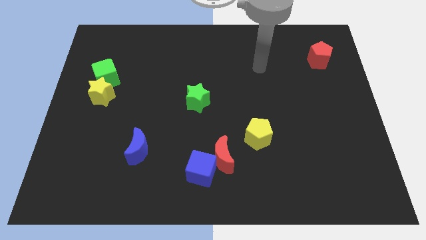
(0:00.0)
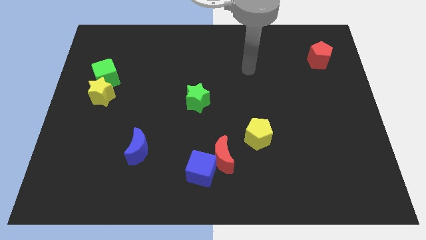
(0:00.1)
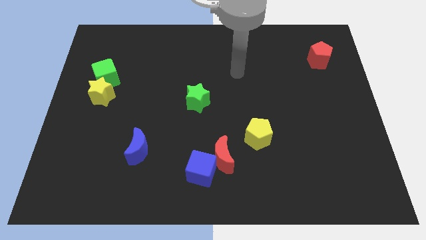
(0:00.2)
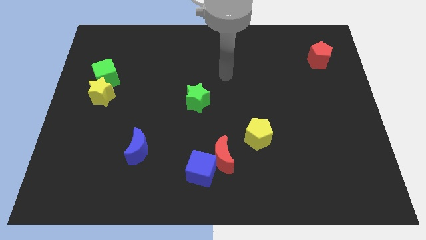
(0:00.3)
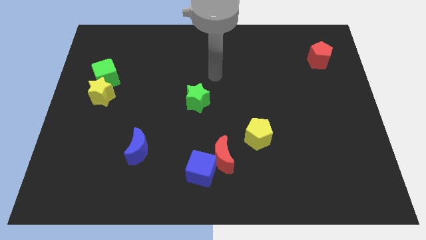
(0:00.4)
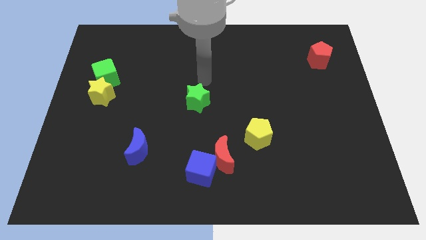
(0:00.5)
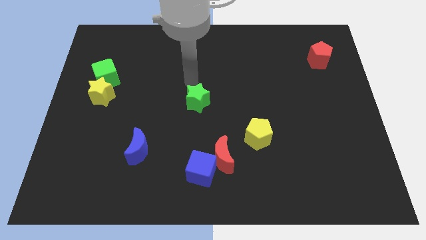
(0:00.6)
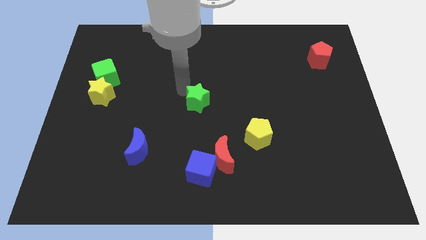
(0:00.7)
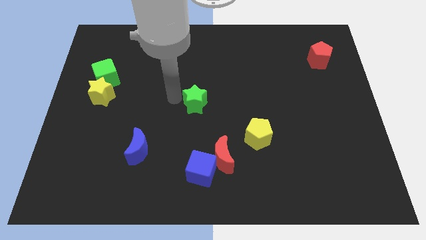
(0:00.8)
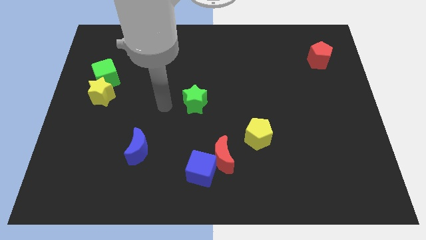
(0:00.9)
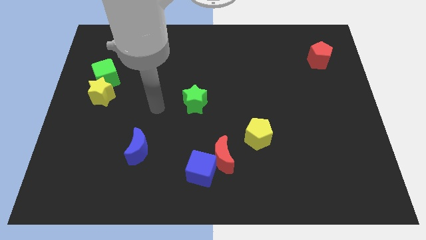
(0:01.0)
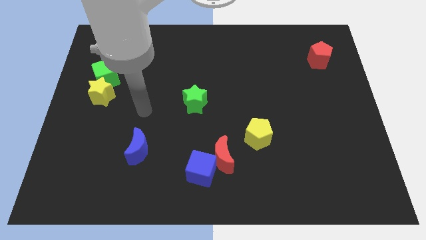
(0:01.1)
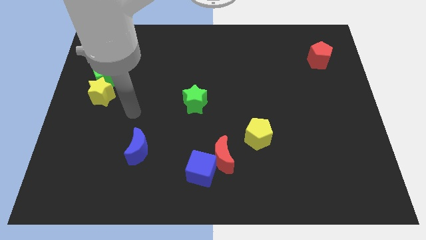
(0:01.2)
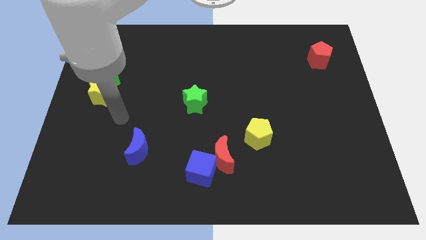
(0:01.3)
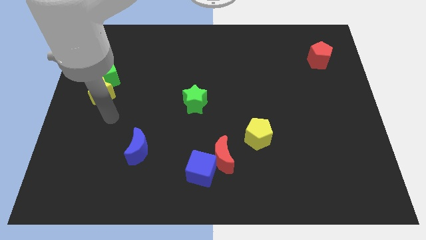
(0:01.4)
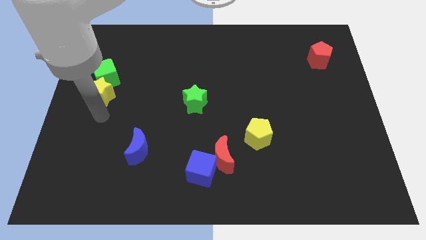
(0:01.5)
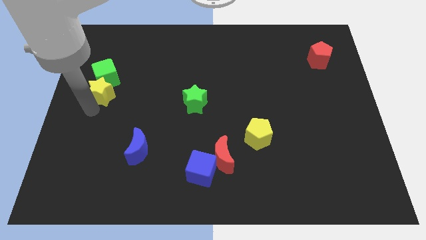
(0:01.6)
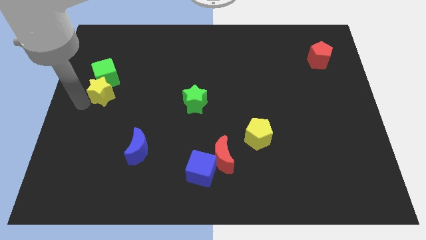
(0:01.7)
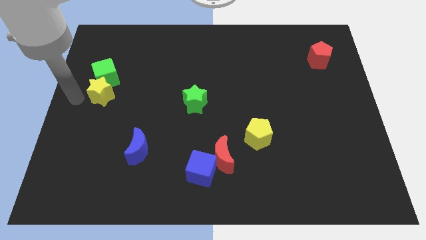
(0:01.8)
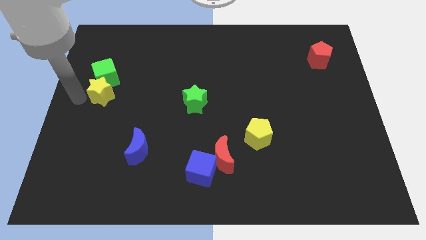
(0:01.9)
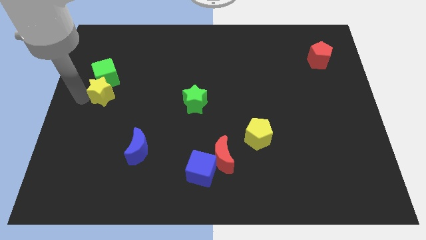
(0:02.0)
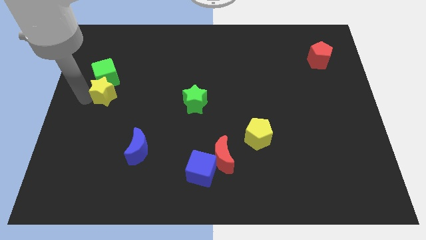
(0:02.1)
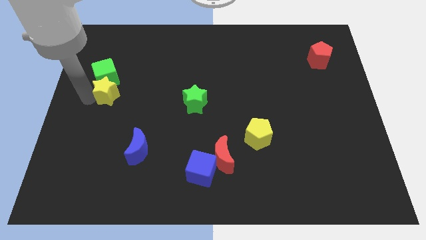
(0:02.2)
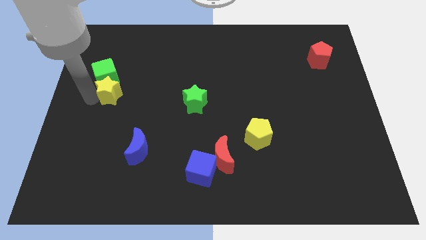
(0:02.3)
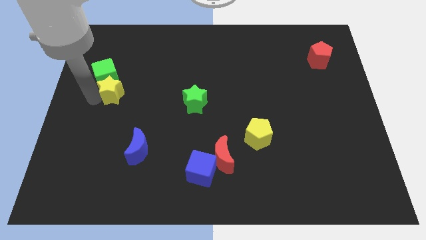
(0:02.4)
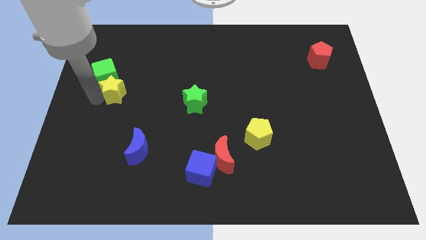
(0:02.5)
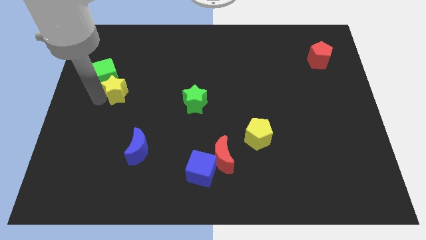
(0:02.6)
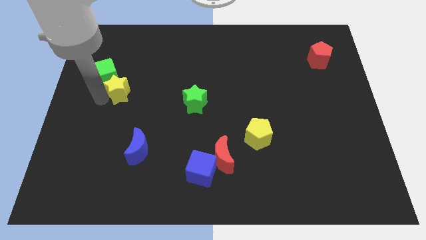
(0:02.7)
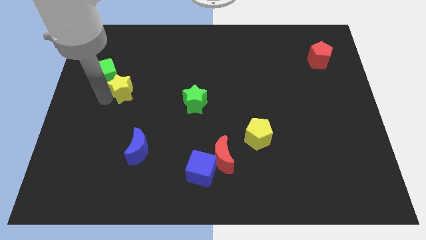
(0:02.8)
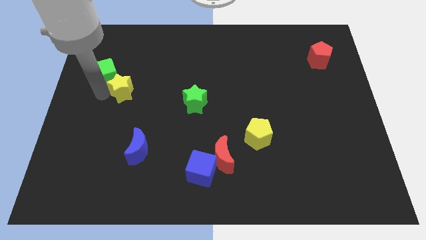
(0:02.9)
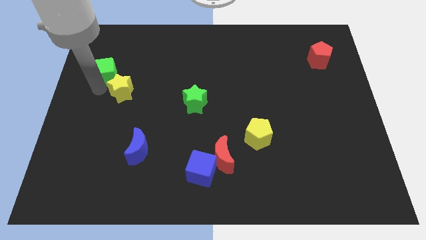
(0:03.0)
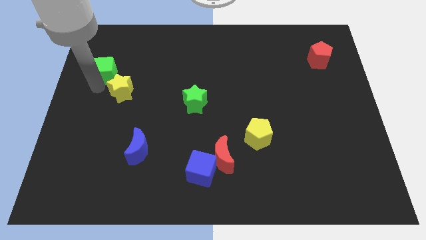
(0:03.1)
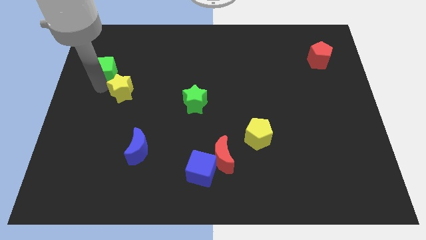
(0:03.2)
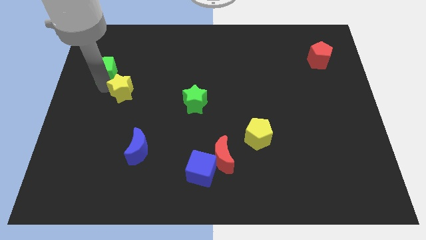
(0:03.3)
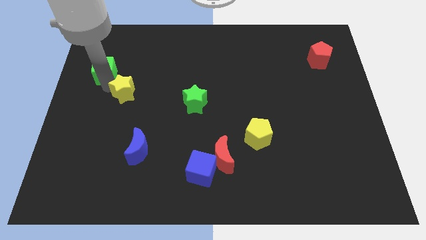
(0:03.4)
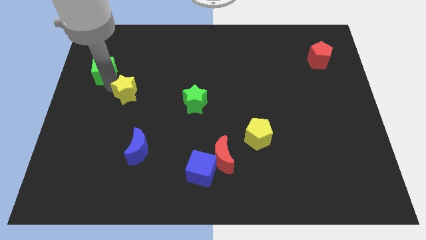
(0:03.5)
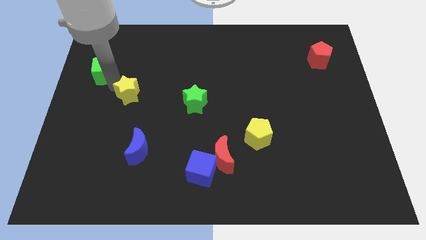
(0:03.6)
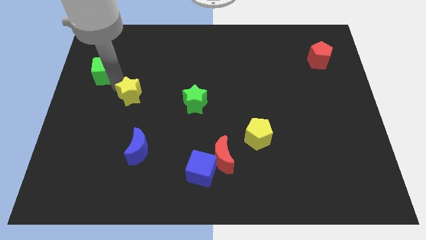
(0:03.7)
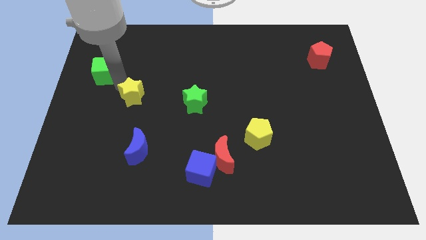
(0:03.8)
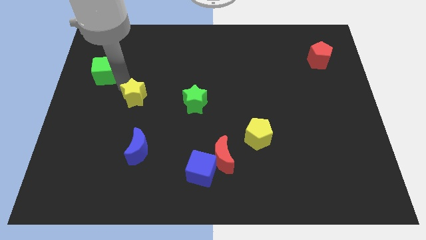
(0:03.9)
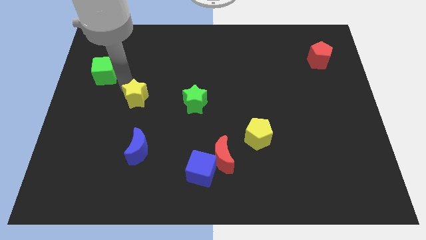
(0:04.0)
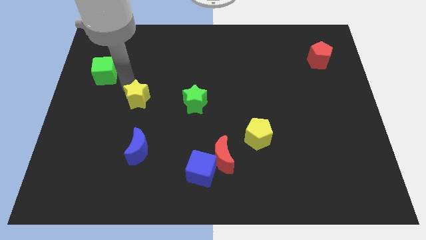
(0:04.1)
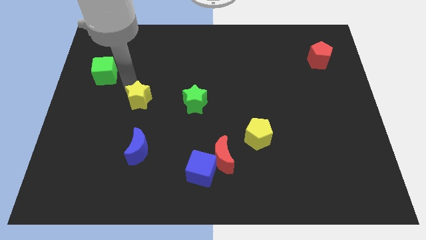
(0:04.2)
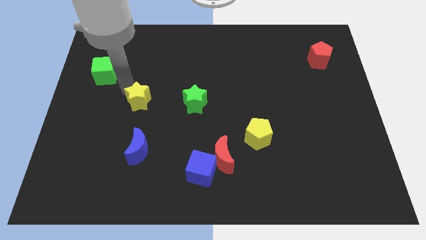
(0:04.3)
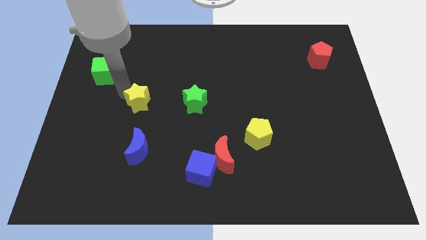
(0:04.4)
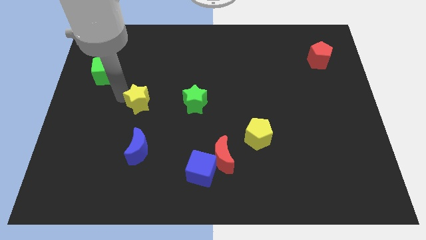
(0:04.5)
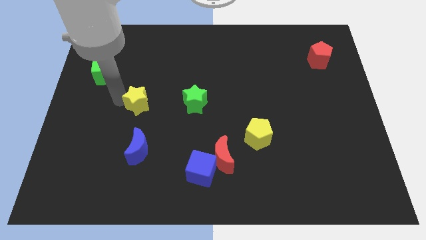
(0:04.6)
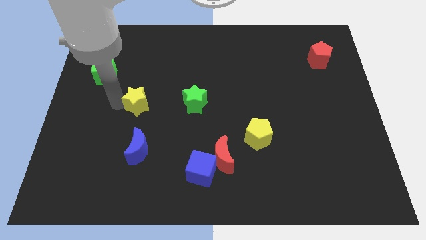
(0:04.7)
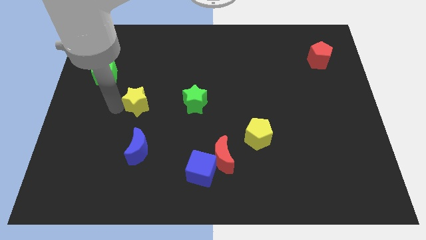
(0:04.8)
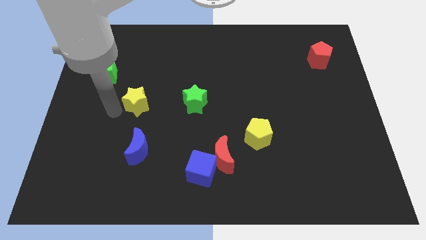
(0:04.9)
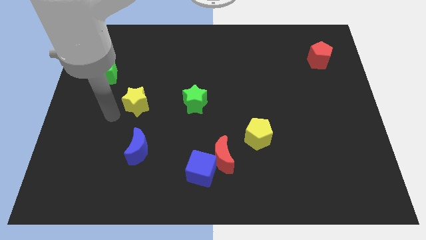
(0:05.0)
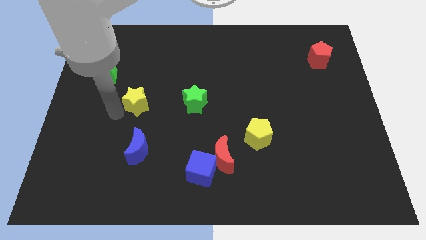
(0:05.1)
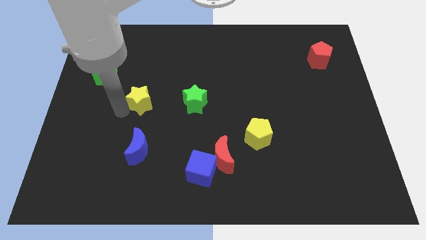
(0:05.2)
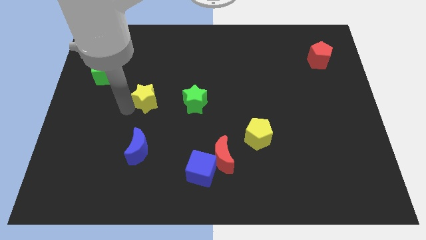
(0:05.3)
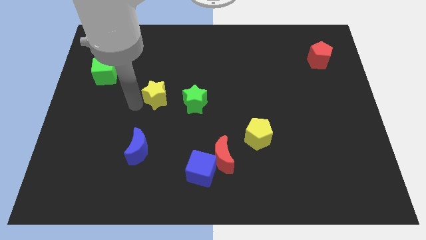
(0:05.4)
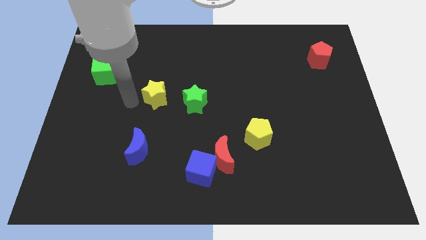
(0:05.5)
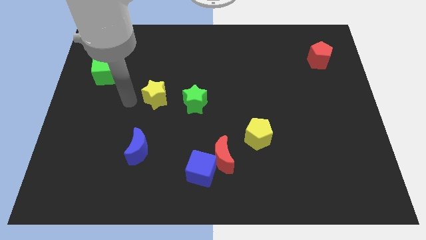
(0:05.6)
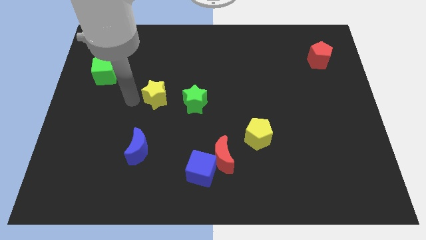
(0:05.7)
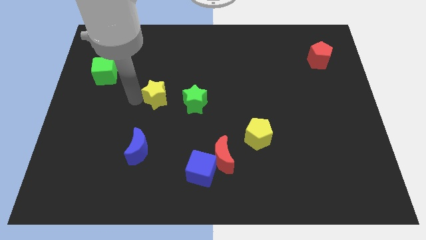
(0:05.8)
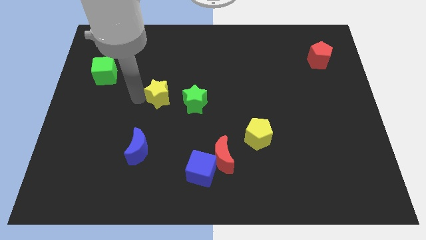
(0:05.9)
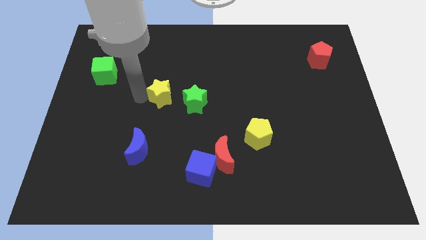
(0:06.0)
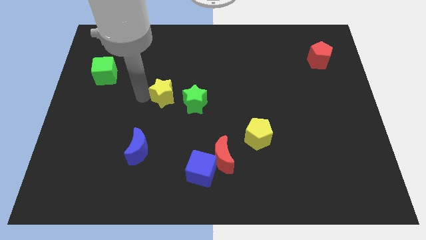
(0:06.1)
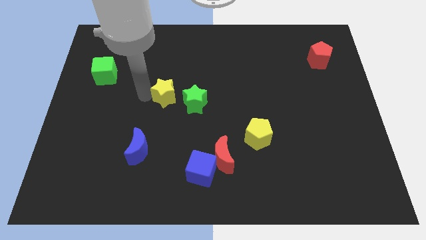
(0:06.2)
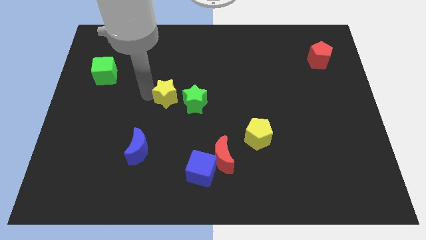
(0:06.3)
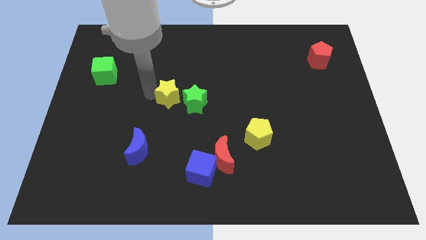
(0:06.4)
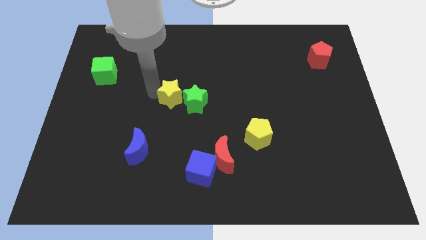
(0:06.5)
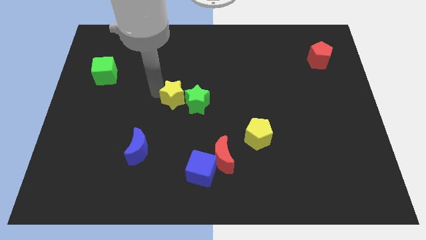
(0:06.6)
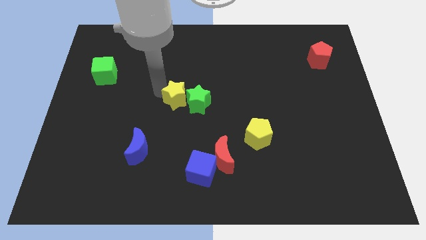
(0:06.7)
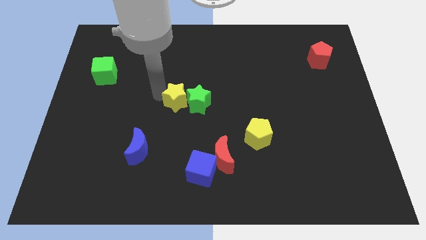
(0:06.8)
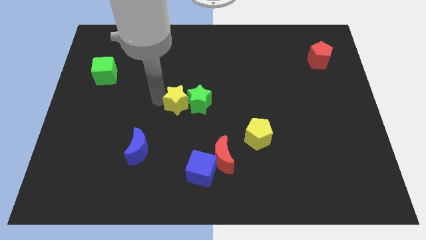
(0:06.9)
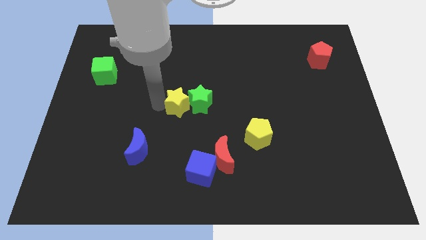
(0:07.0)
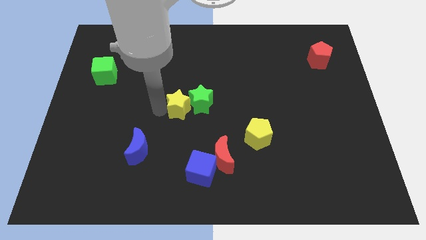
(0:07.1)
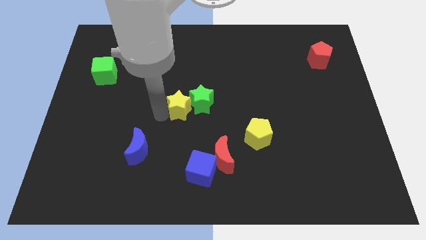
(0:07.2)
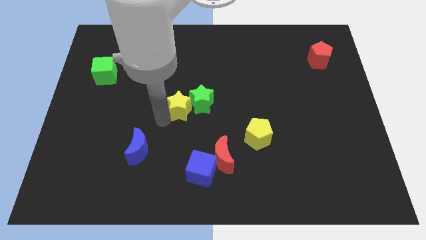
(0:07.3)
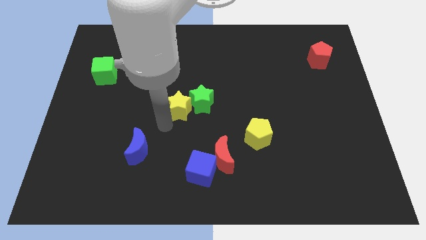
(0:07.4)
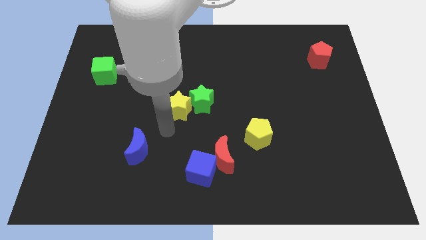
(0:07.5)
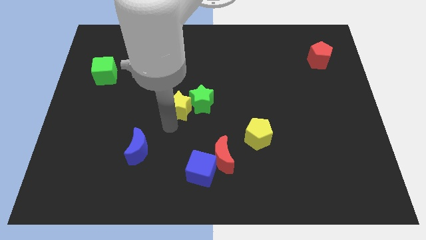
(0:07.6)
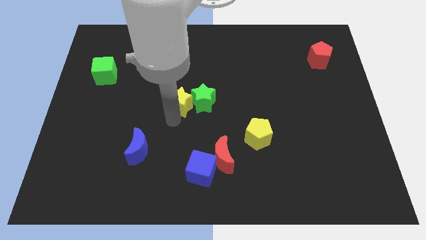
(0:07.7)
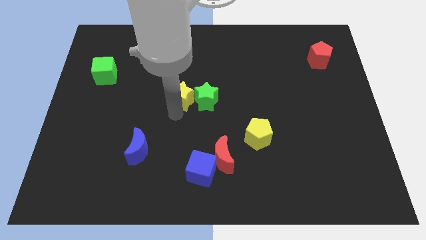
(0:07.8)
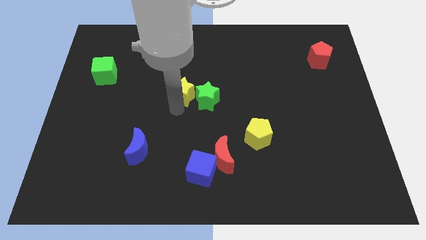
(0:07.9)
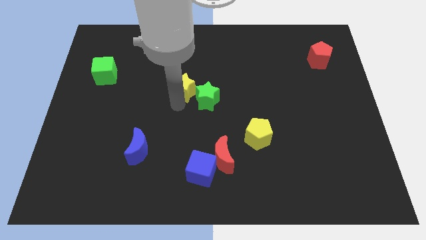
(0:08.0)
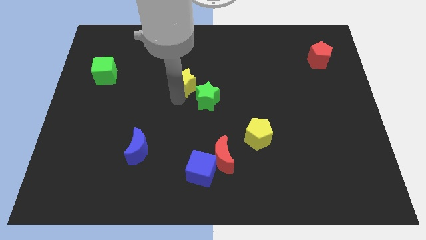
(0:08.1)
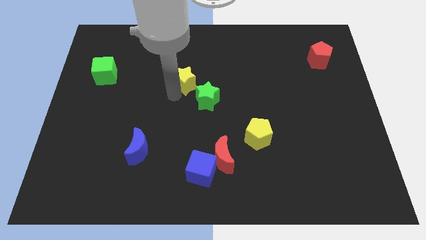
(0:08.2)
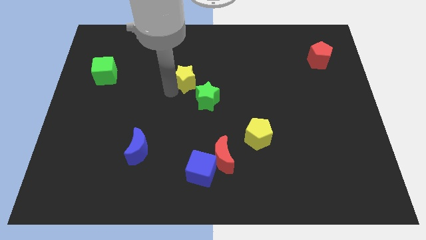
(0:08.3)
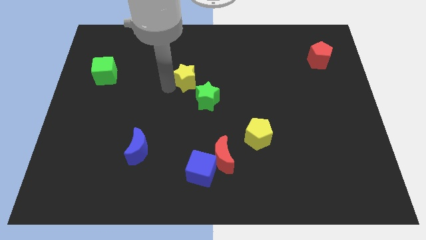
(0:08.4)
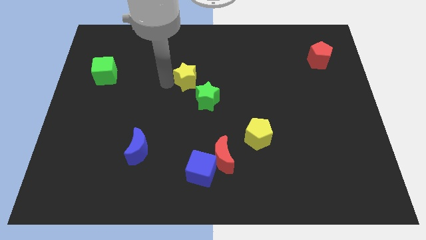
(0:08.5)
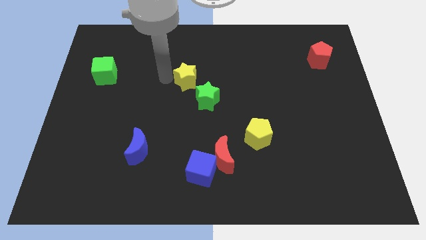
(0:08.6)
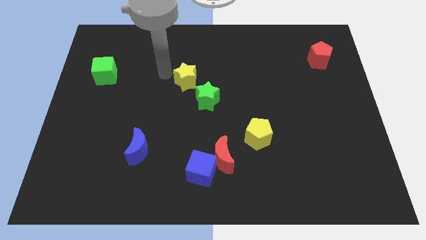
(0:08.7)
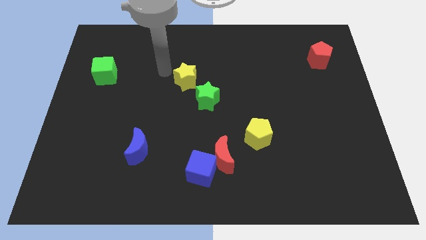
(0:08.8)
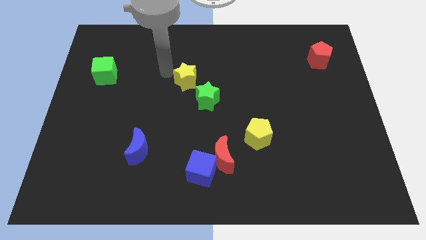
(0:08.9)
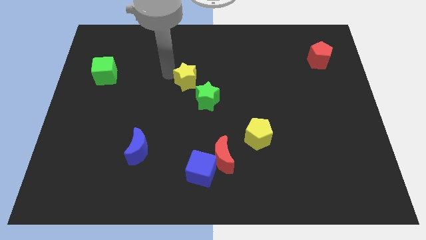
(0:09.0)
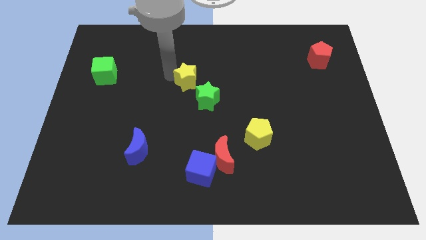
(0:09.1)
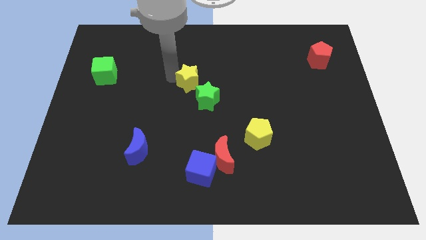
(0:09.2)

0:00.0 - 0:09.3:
slide the yellow star to the right
